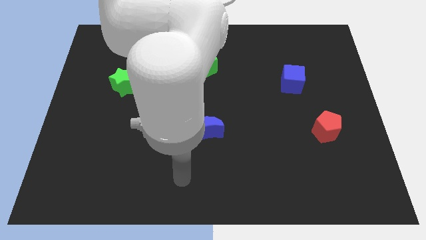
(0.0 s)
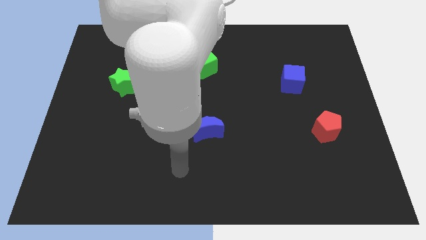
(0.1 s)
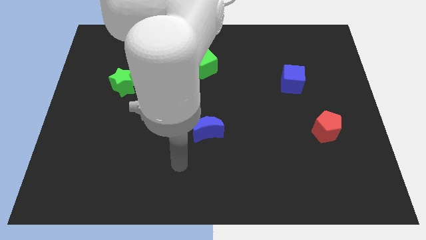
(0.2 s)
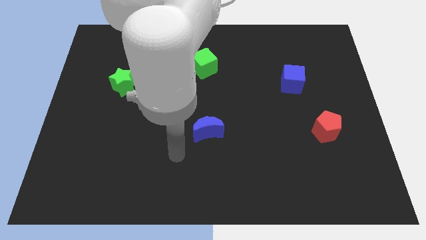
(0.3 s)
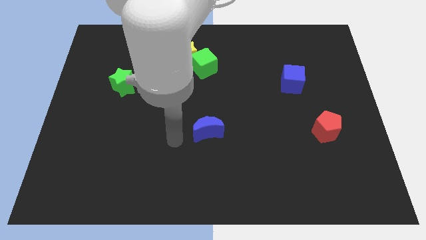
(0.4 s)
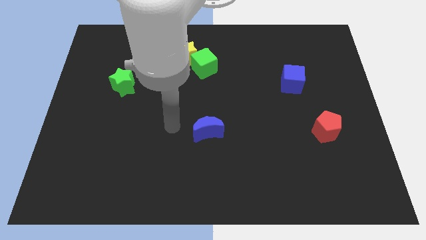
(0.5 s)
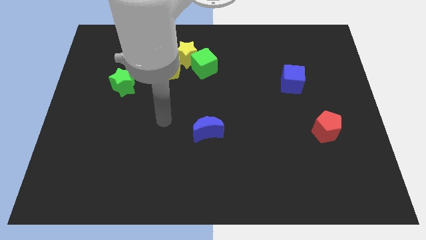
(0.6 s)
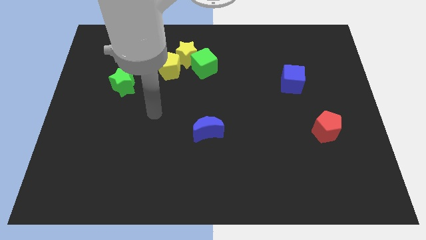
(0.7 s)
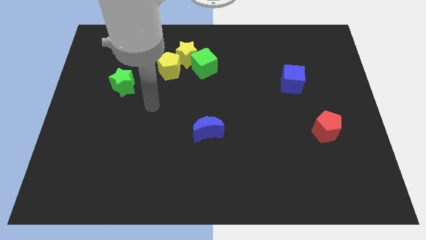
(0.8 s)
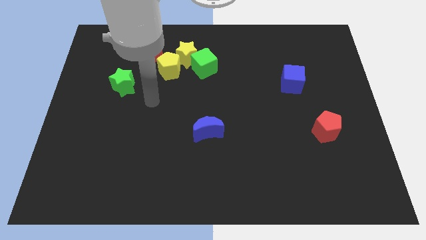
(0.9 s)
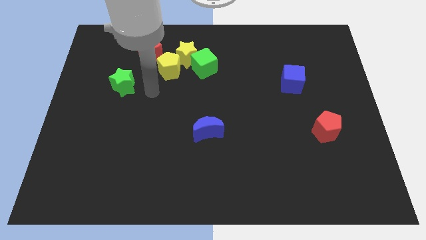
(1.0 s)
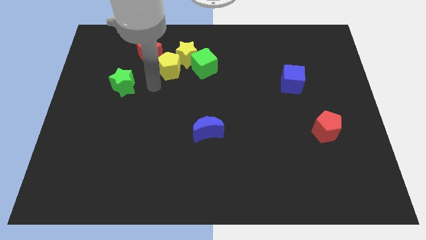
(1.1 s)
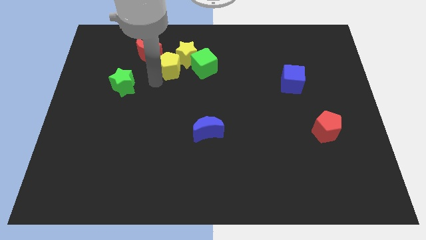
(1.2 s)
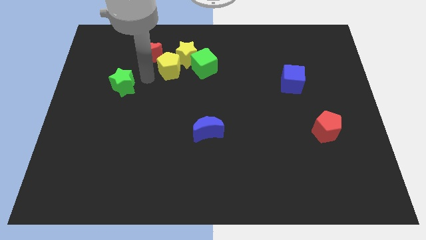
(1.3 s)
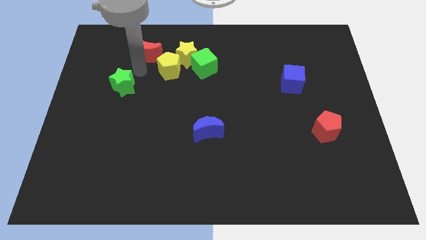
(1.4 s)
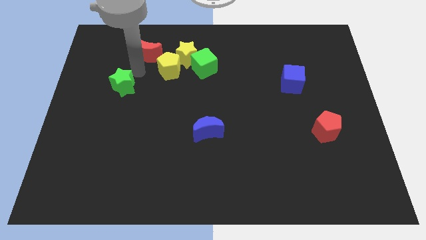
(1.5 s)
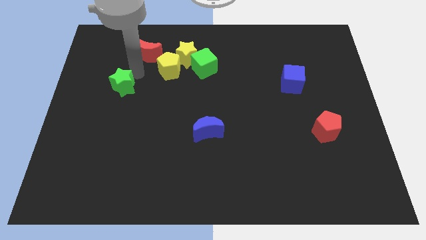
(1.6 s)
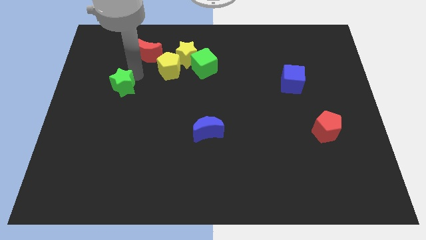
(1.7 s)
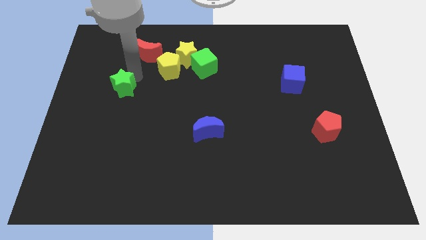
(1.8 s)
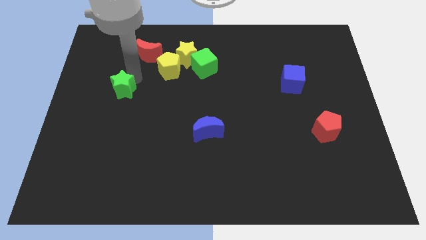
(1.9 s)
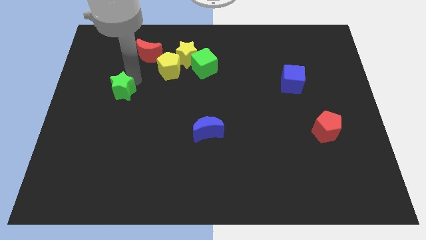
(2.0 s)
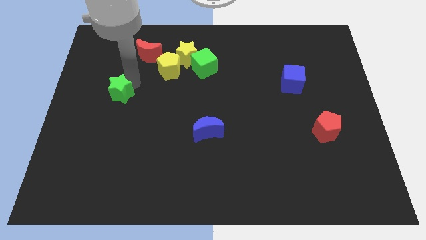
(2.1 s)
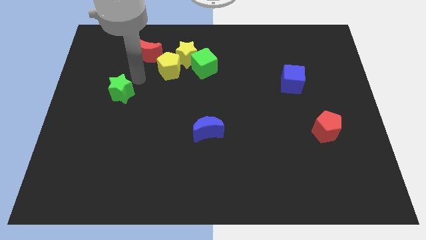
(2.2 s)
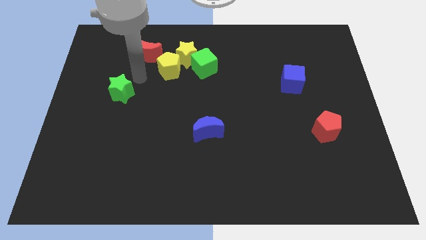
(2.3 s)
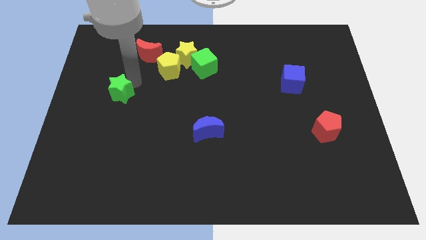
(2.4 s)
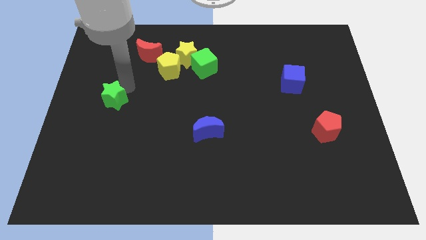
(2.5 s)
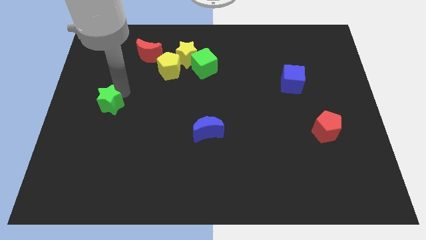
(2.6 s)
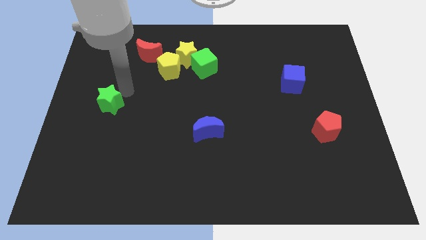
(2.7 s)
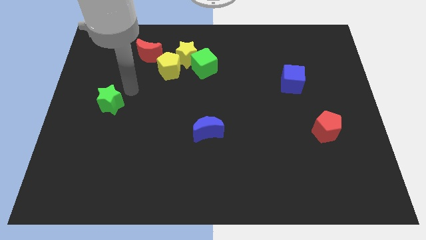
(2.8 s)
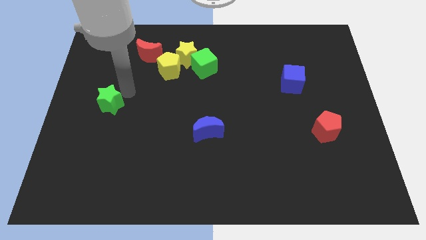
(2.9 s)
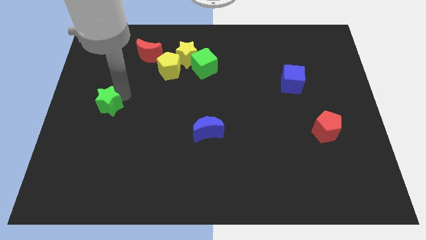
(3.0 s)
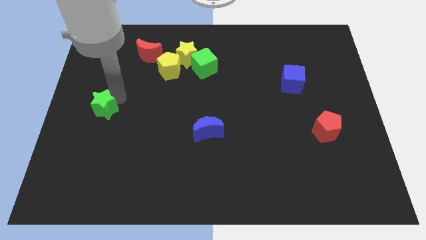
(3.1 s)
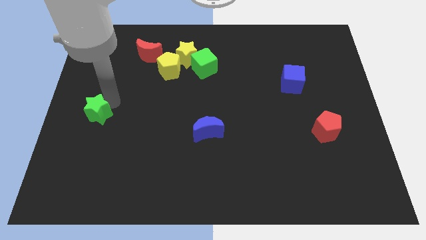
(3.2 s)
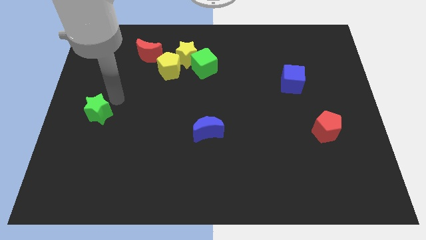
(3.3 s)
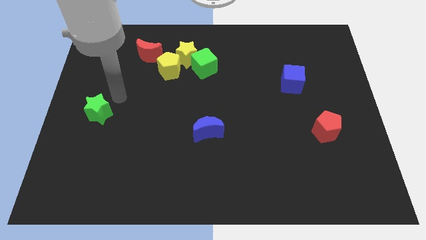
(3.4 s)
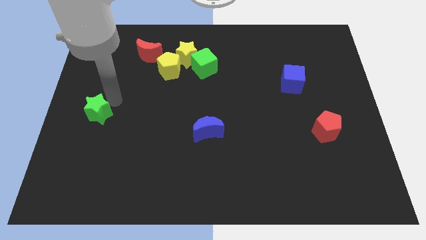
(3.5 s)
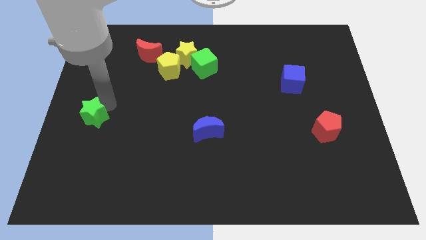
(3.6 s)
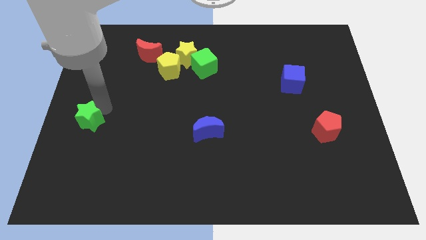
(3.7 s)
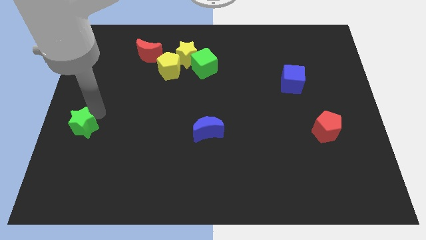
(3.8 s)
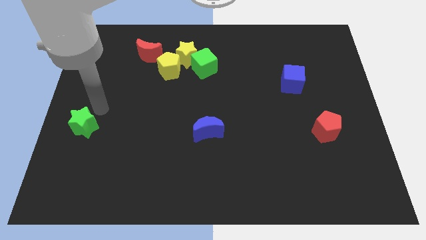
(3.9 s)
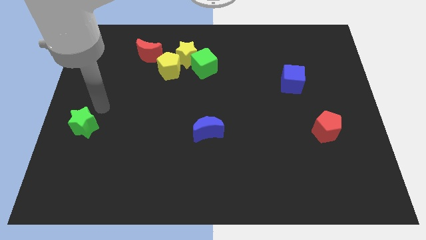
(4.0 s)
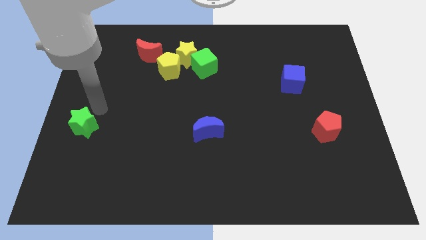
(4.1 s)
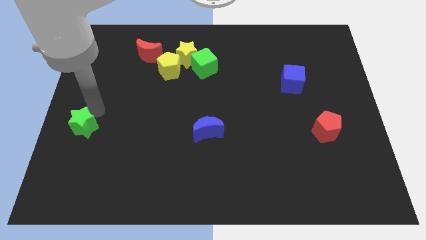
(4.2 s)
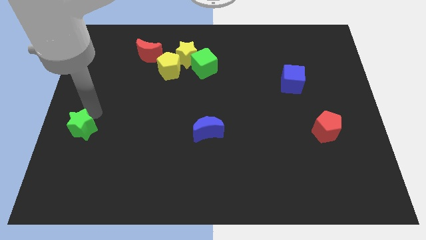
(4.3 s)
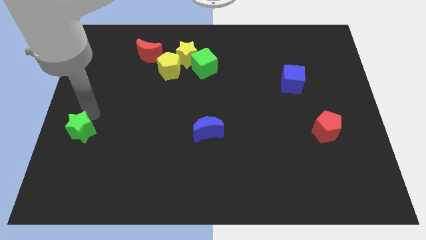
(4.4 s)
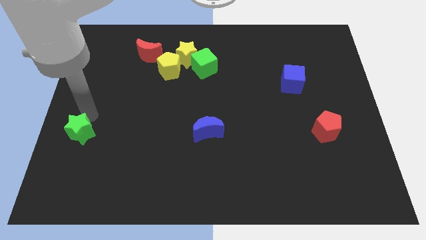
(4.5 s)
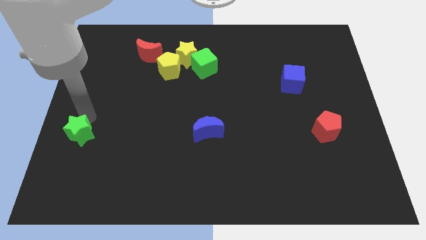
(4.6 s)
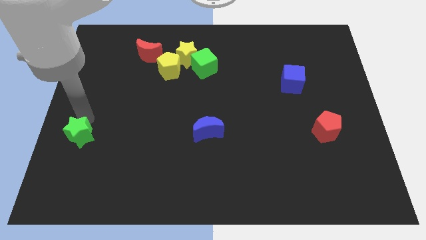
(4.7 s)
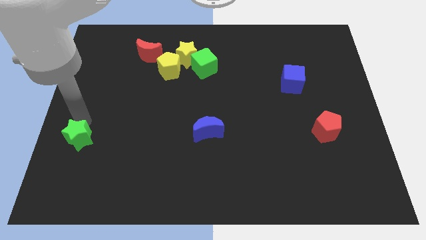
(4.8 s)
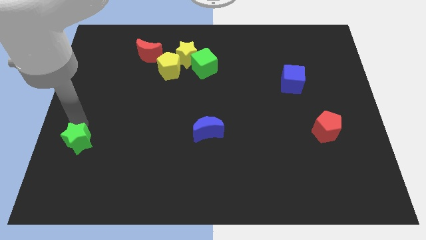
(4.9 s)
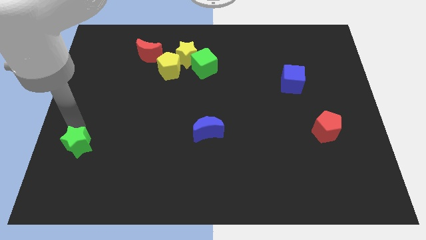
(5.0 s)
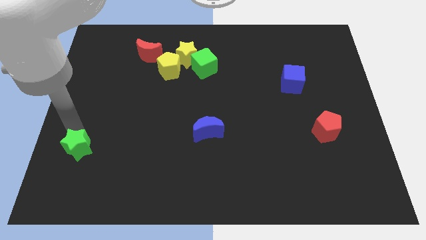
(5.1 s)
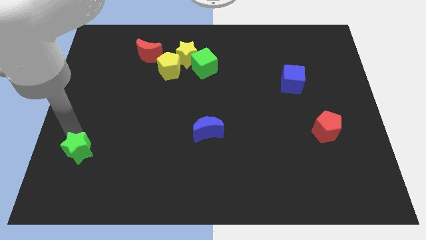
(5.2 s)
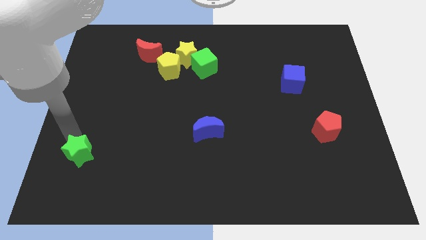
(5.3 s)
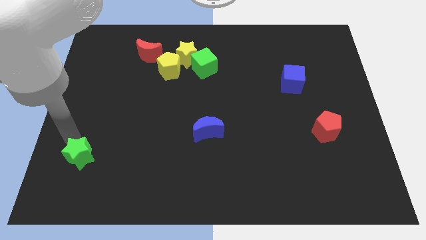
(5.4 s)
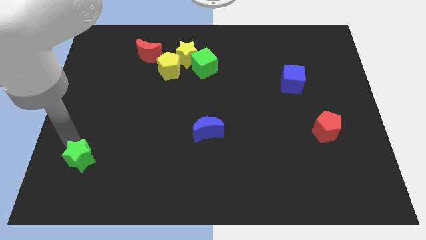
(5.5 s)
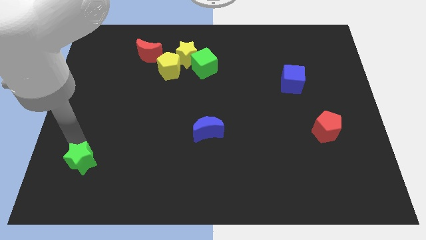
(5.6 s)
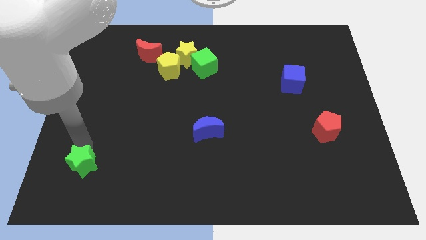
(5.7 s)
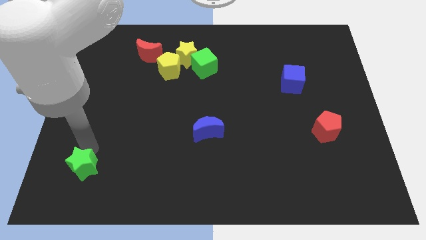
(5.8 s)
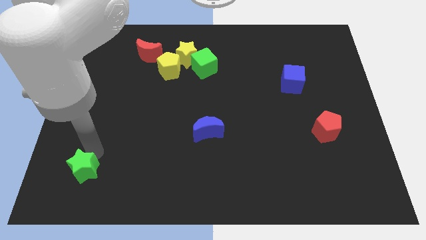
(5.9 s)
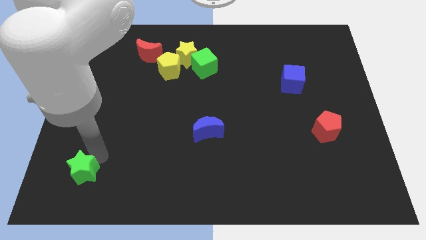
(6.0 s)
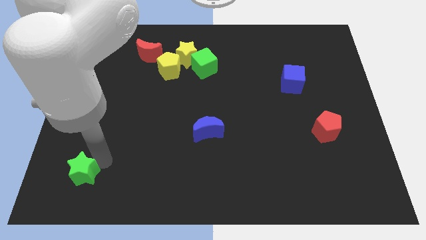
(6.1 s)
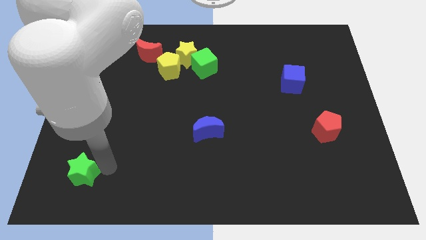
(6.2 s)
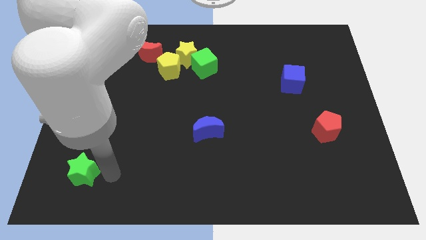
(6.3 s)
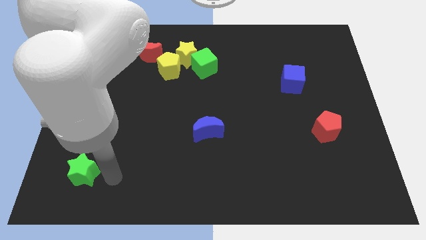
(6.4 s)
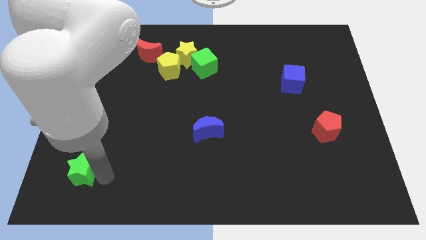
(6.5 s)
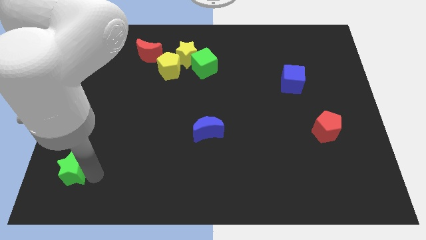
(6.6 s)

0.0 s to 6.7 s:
push the green star to the bottom left of the board
